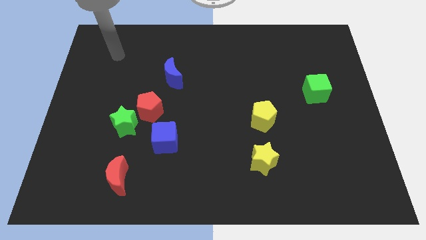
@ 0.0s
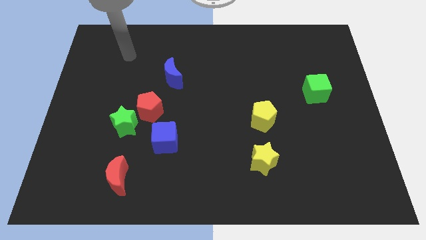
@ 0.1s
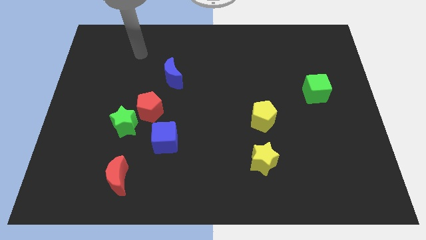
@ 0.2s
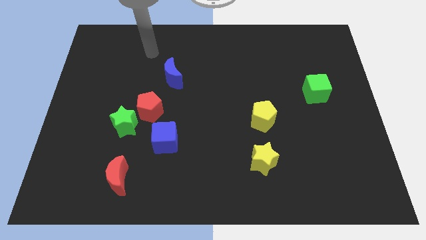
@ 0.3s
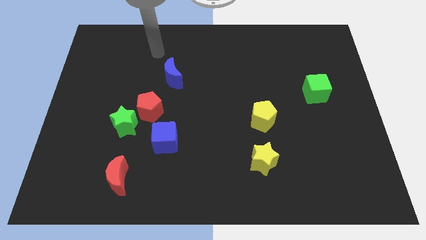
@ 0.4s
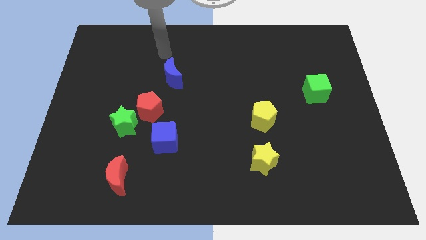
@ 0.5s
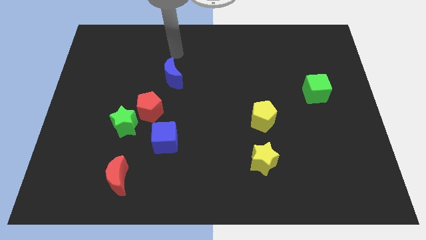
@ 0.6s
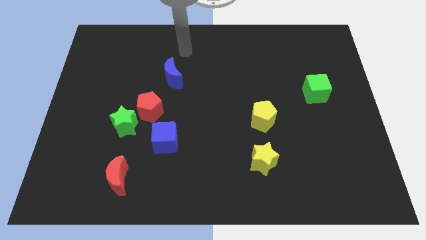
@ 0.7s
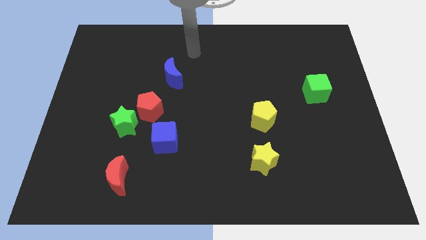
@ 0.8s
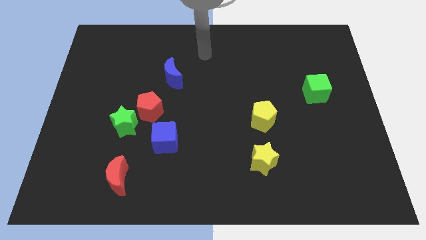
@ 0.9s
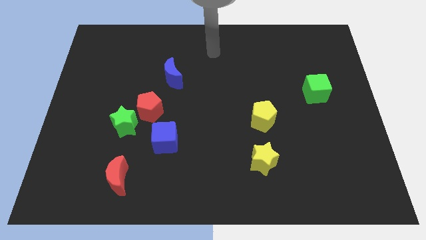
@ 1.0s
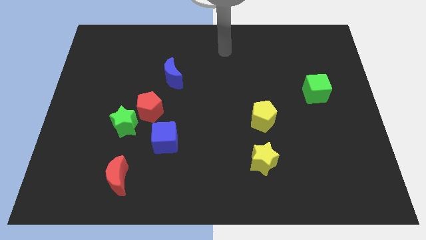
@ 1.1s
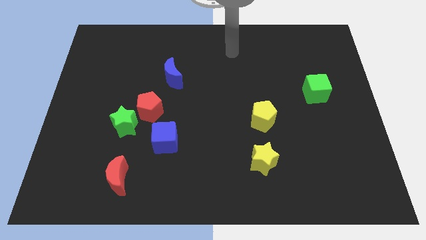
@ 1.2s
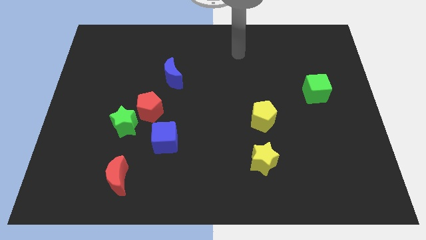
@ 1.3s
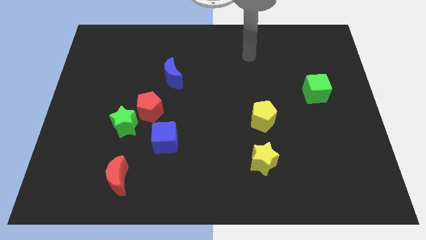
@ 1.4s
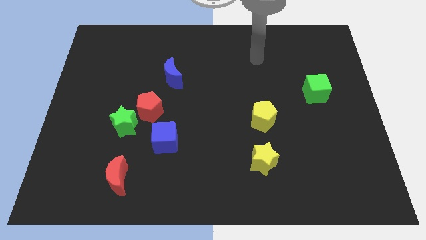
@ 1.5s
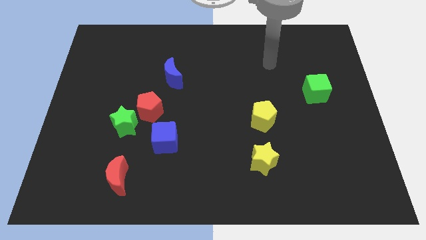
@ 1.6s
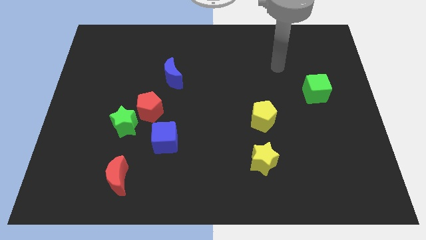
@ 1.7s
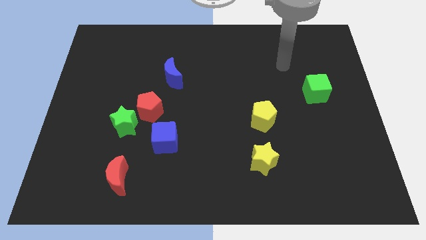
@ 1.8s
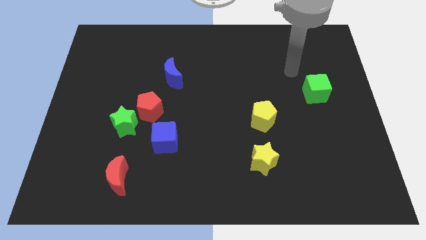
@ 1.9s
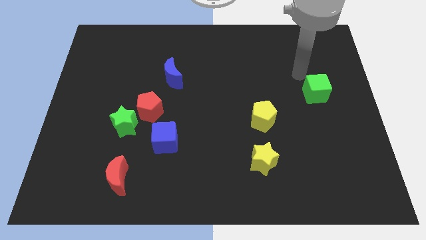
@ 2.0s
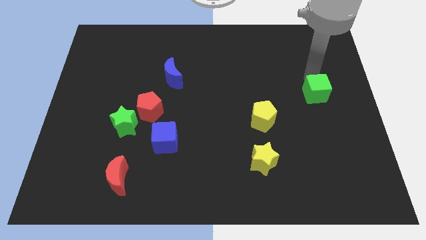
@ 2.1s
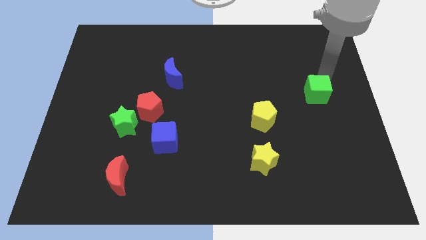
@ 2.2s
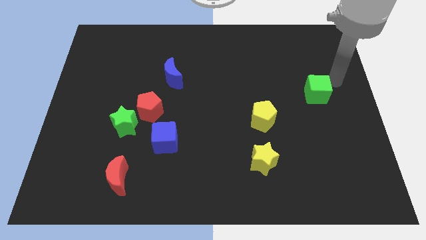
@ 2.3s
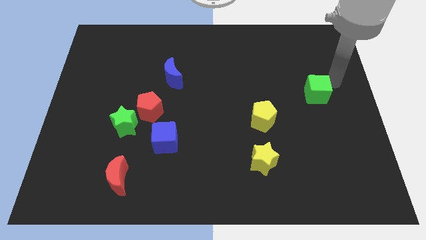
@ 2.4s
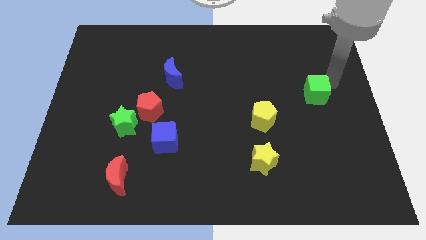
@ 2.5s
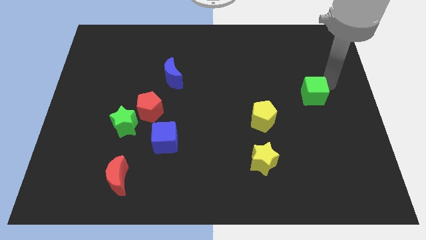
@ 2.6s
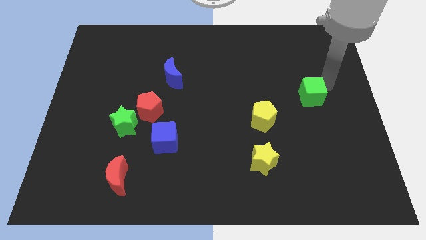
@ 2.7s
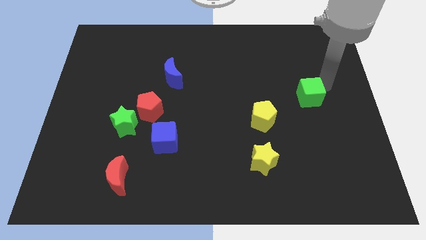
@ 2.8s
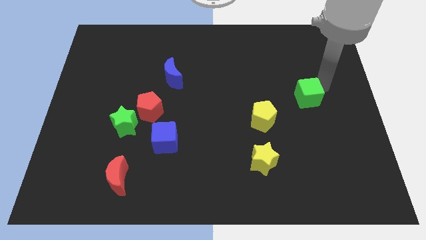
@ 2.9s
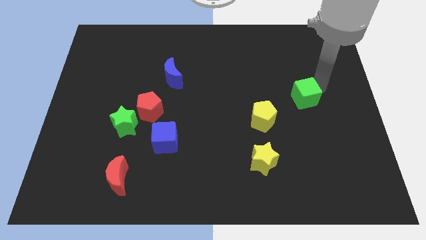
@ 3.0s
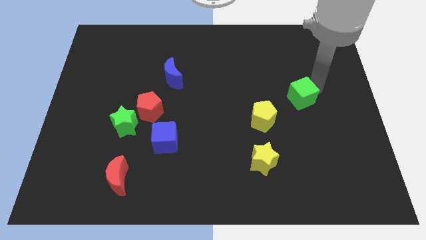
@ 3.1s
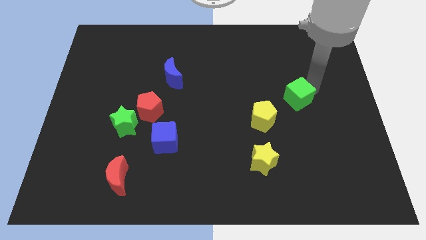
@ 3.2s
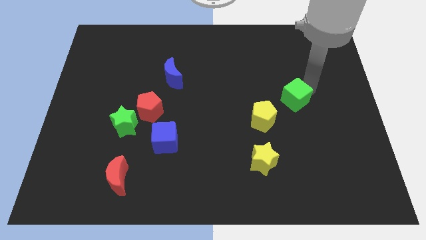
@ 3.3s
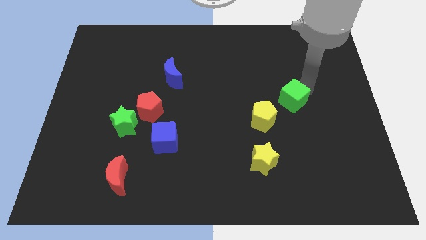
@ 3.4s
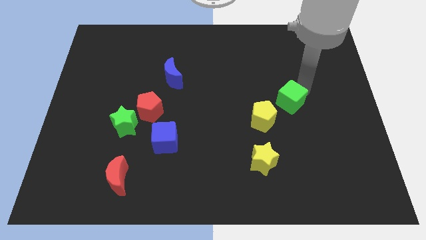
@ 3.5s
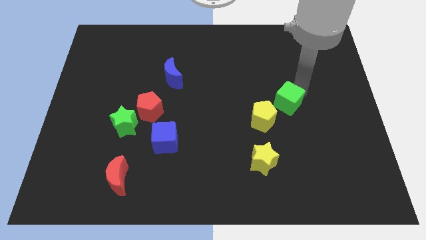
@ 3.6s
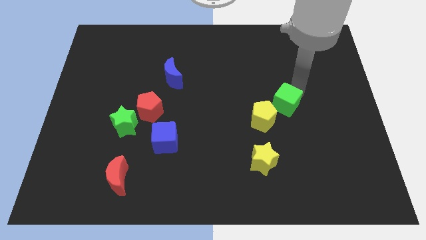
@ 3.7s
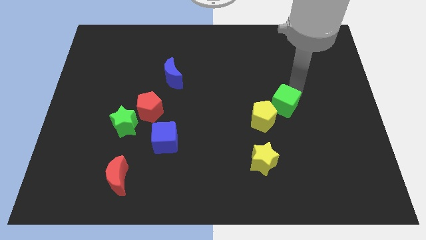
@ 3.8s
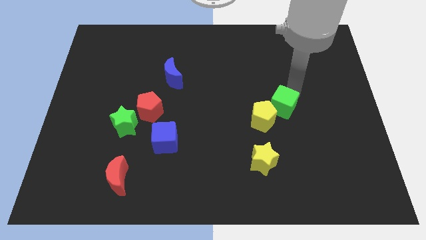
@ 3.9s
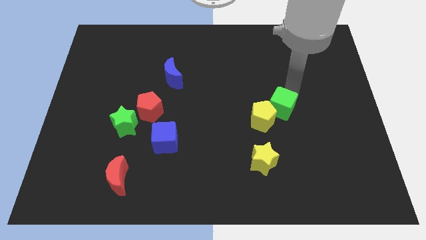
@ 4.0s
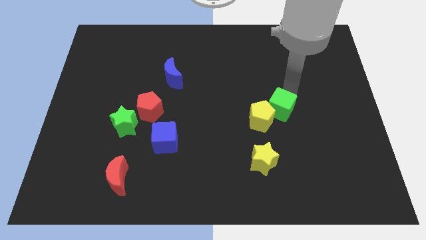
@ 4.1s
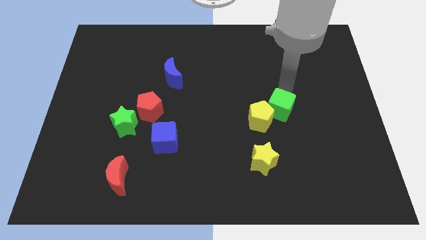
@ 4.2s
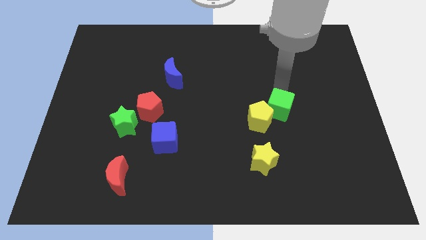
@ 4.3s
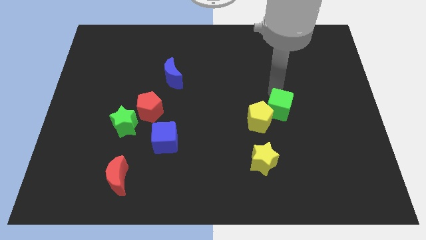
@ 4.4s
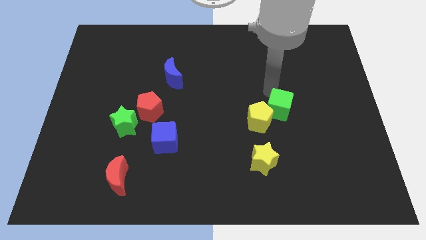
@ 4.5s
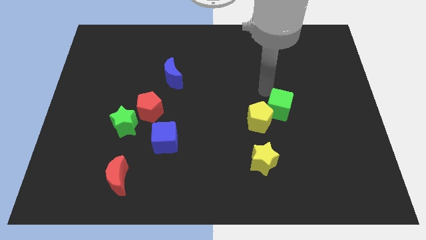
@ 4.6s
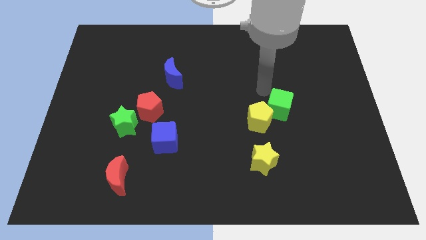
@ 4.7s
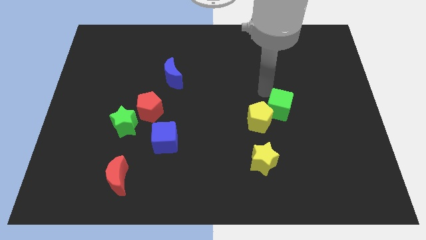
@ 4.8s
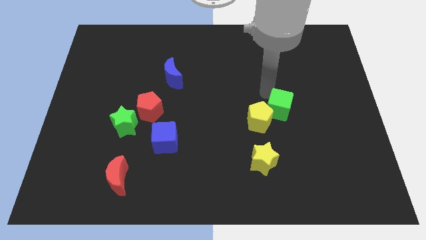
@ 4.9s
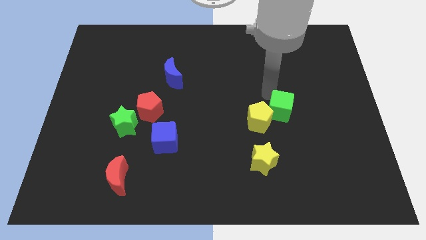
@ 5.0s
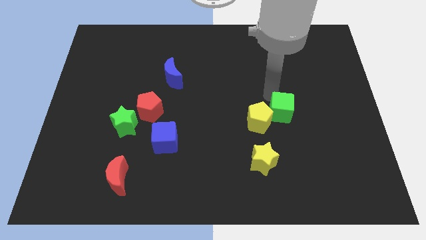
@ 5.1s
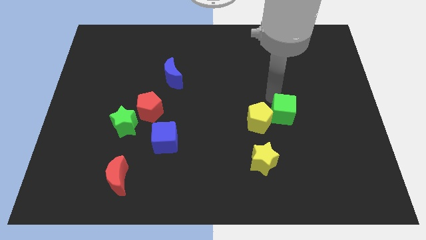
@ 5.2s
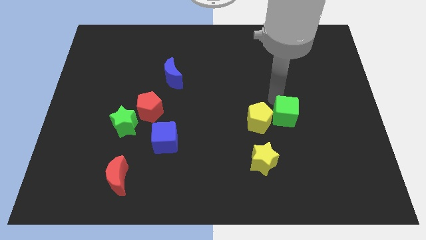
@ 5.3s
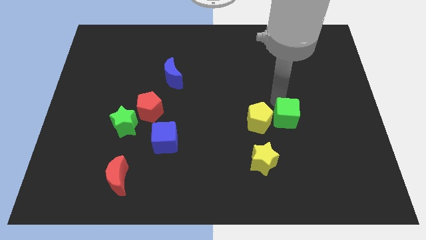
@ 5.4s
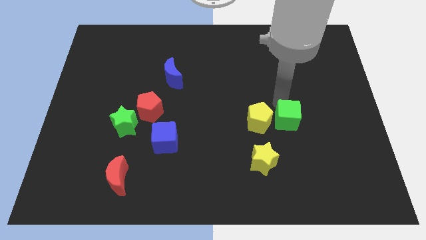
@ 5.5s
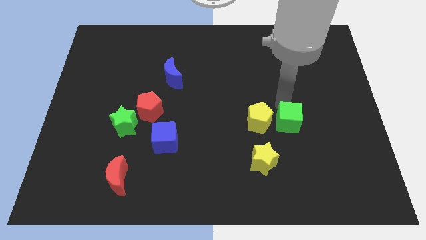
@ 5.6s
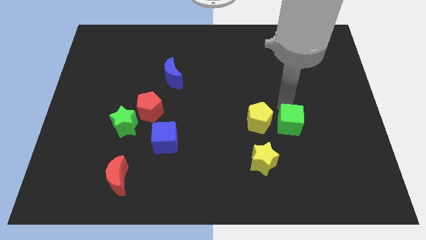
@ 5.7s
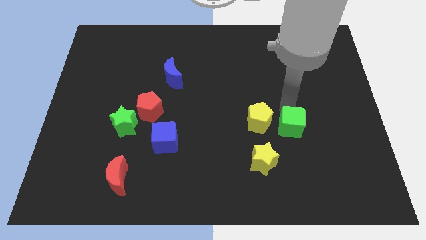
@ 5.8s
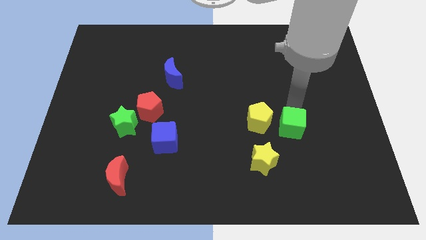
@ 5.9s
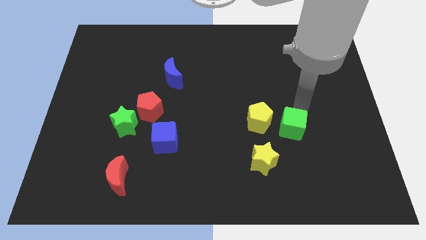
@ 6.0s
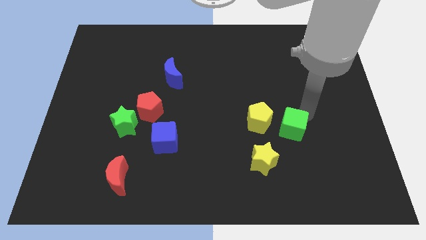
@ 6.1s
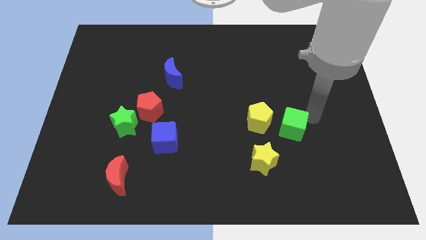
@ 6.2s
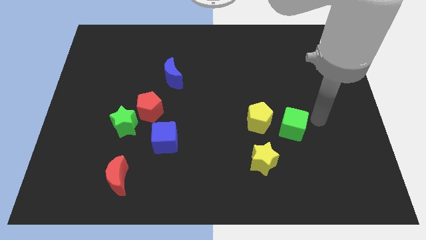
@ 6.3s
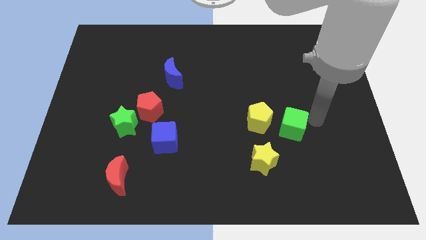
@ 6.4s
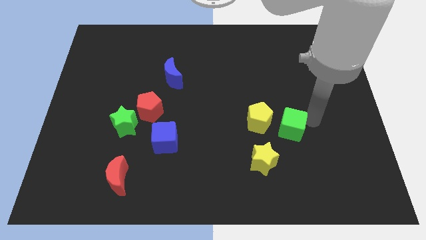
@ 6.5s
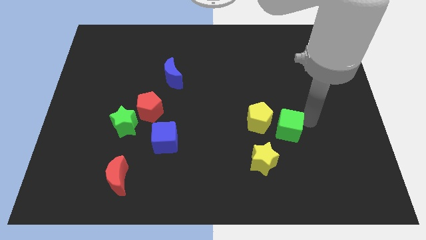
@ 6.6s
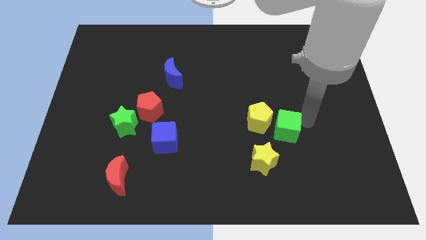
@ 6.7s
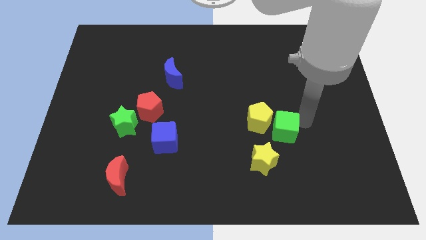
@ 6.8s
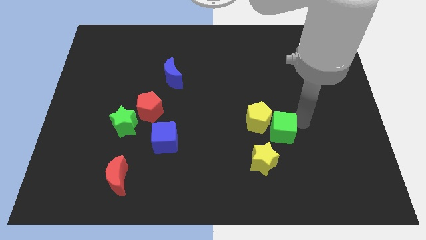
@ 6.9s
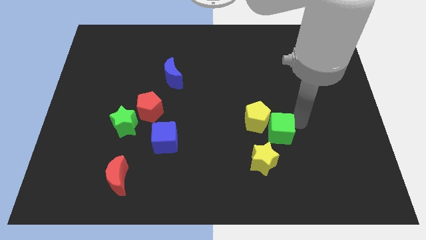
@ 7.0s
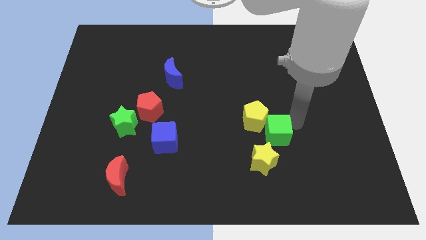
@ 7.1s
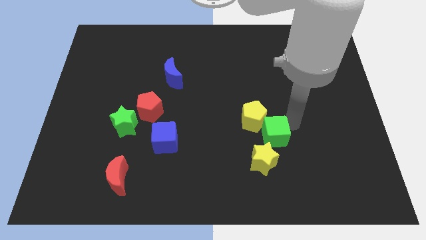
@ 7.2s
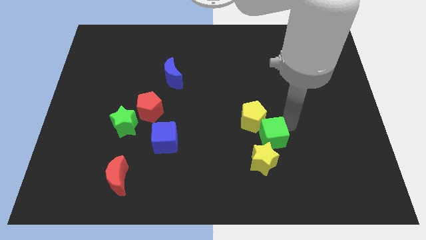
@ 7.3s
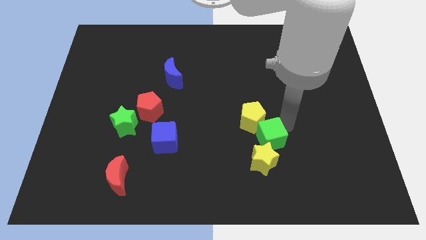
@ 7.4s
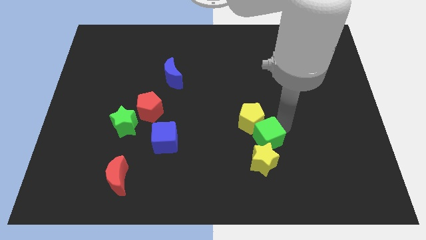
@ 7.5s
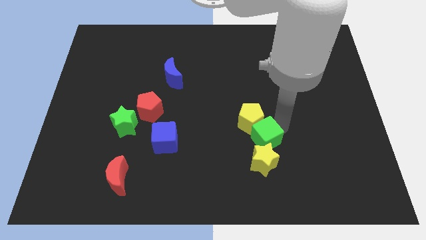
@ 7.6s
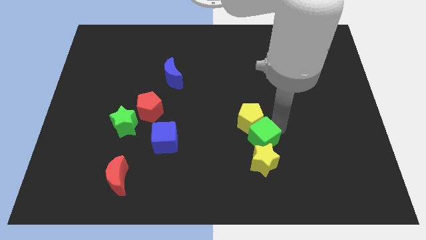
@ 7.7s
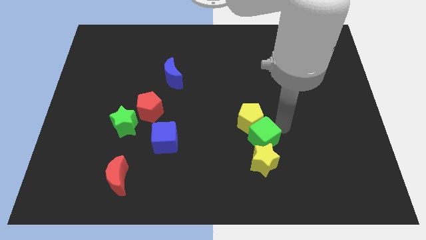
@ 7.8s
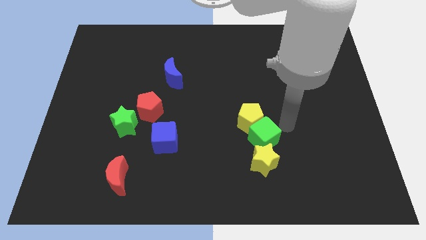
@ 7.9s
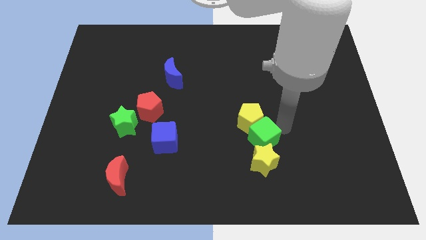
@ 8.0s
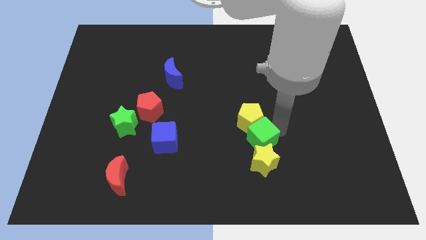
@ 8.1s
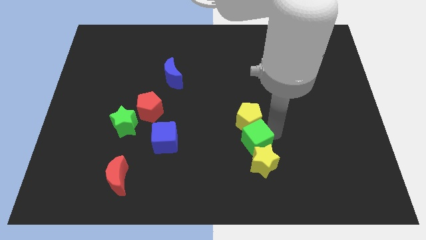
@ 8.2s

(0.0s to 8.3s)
move the green cube down and left diagonally
